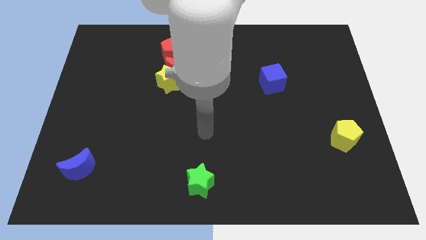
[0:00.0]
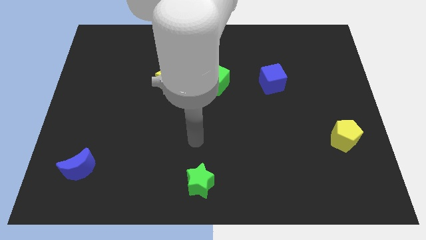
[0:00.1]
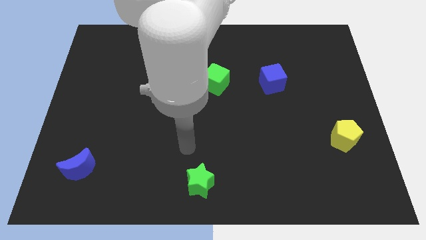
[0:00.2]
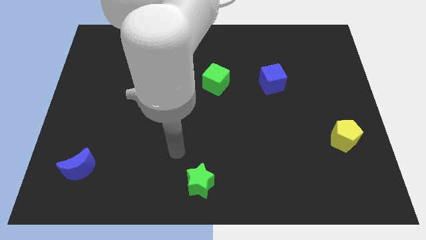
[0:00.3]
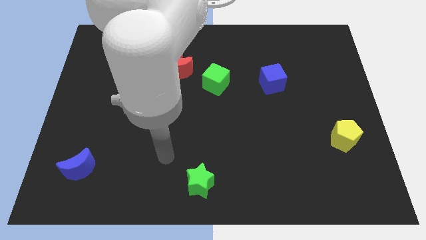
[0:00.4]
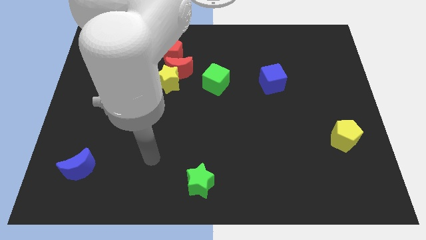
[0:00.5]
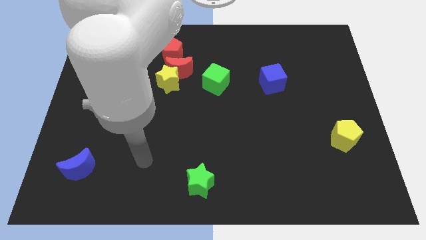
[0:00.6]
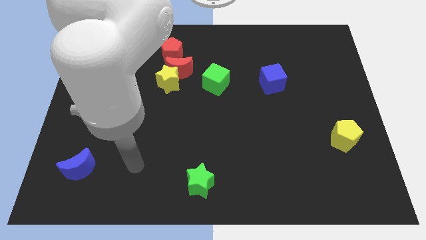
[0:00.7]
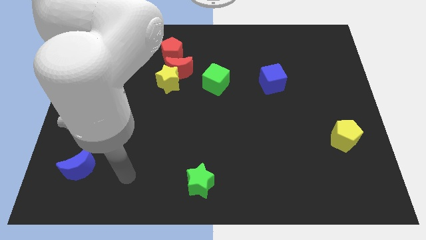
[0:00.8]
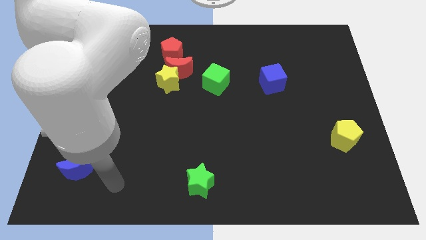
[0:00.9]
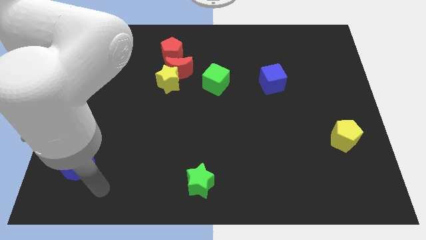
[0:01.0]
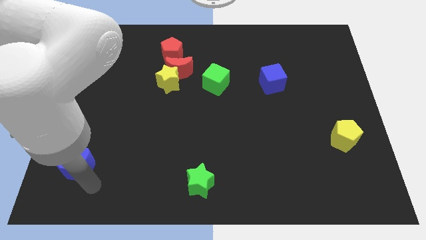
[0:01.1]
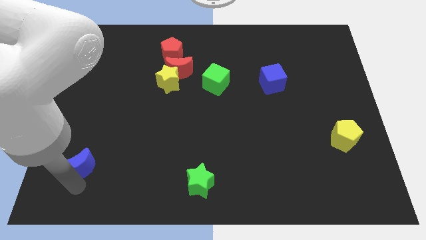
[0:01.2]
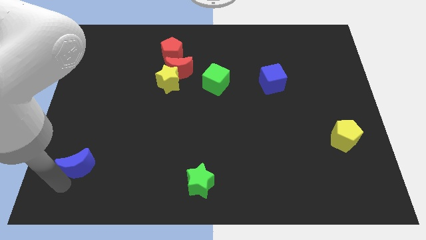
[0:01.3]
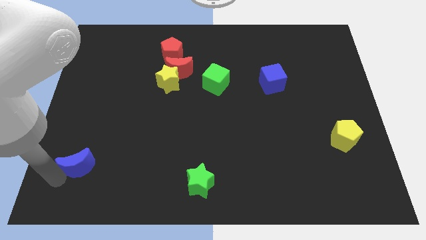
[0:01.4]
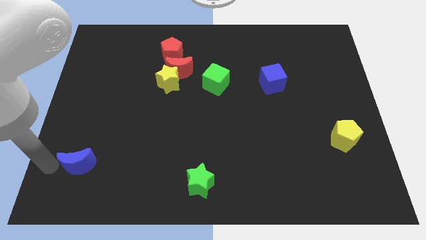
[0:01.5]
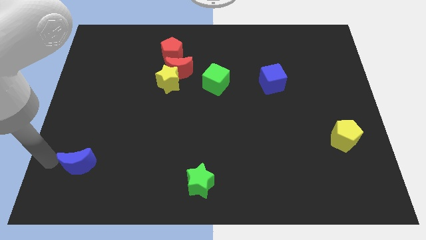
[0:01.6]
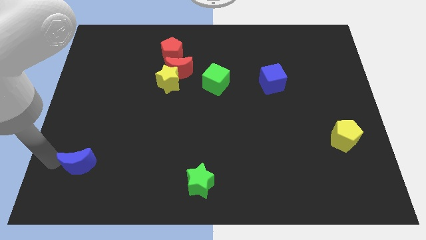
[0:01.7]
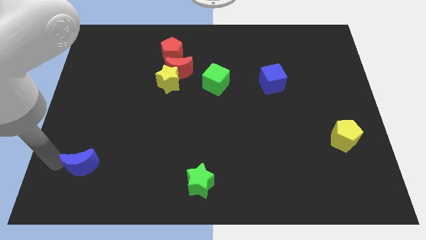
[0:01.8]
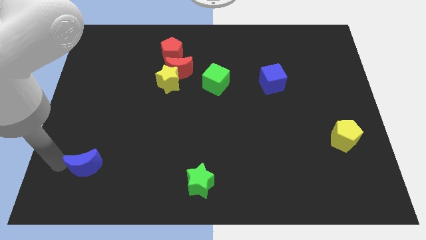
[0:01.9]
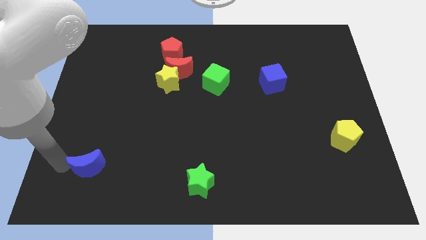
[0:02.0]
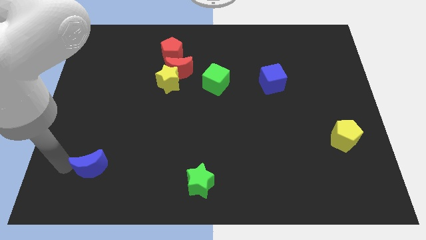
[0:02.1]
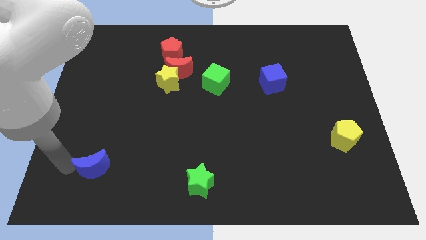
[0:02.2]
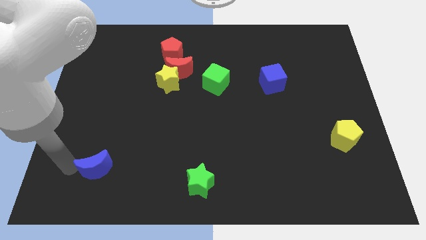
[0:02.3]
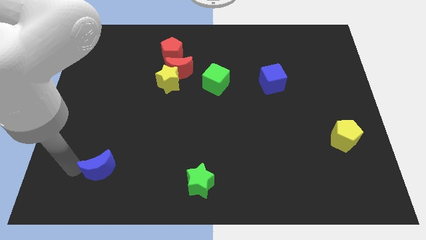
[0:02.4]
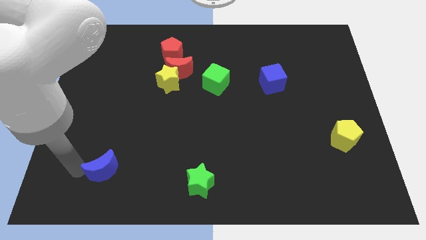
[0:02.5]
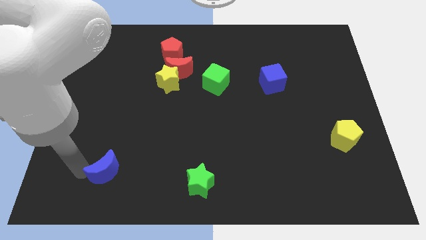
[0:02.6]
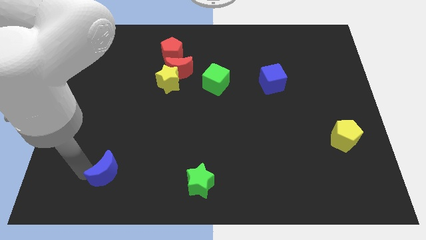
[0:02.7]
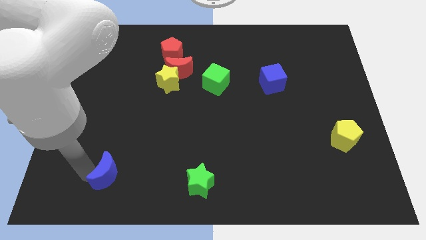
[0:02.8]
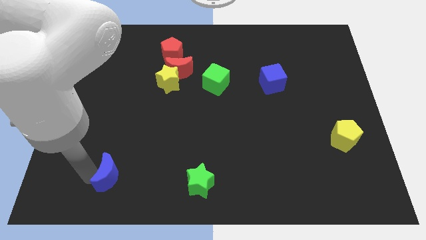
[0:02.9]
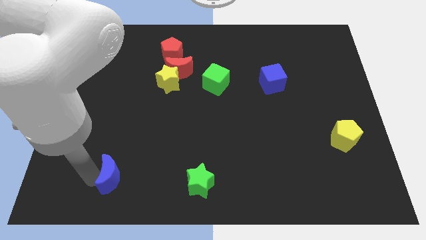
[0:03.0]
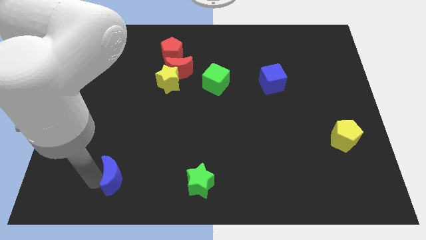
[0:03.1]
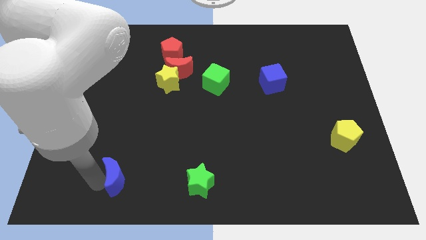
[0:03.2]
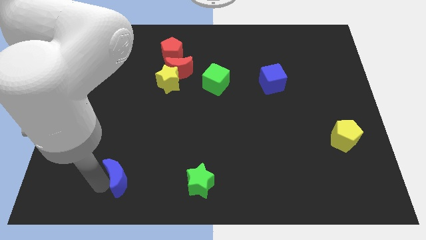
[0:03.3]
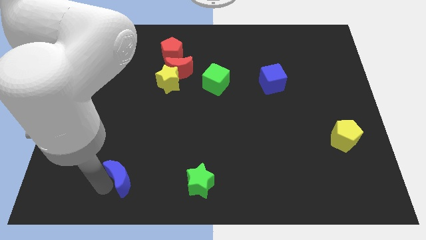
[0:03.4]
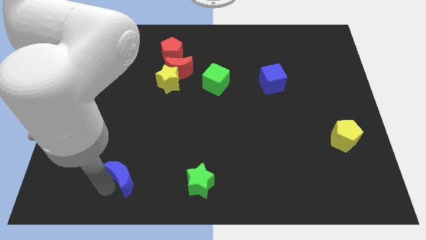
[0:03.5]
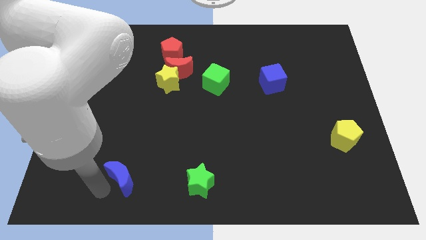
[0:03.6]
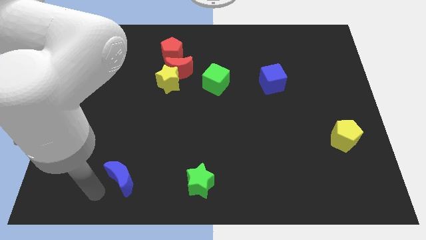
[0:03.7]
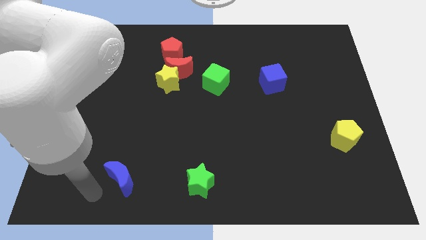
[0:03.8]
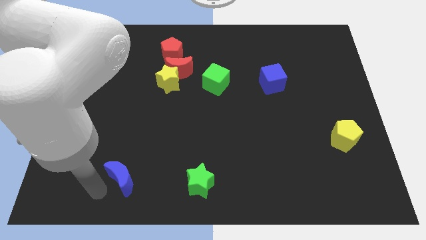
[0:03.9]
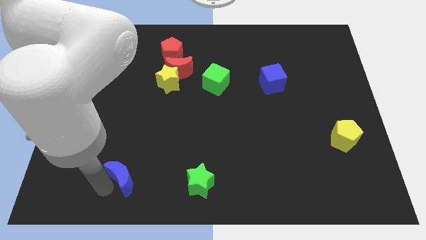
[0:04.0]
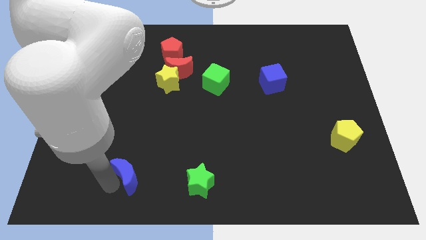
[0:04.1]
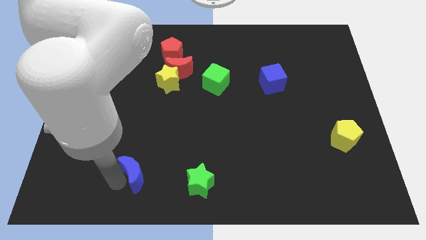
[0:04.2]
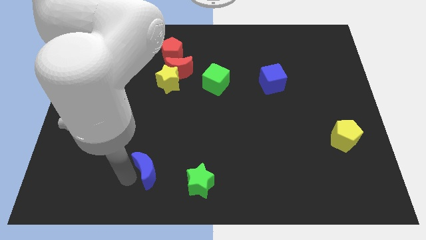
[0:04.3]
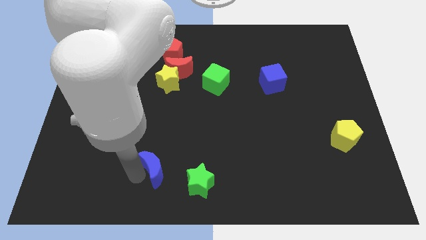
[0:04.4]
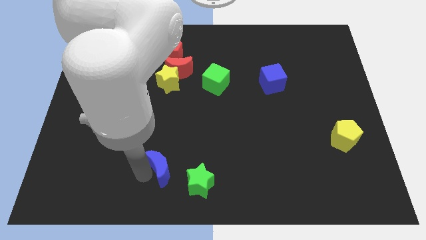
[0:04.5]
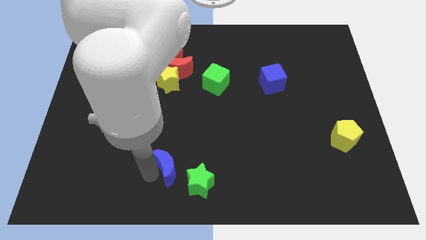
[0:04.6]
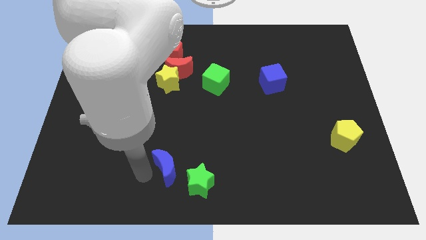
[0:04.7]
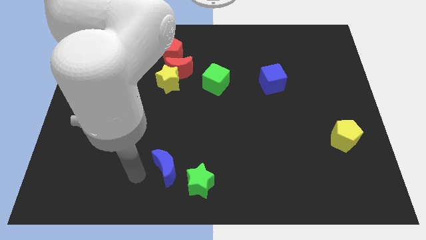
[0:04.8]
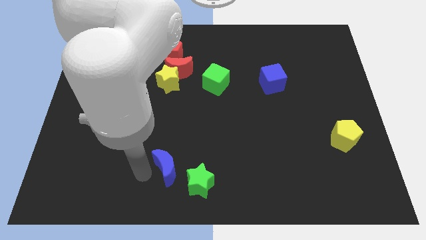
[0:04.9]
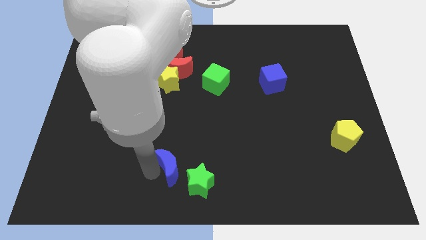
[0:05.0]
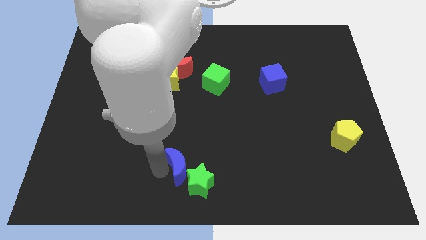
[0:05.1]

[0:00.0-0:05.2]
move the blue moon to the right

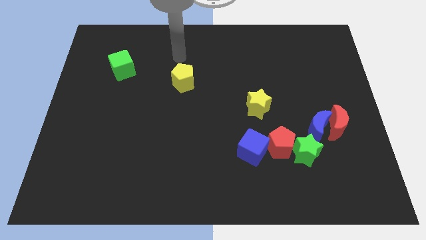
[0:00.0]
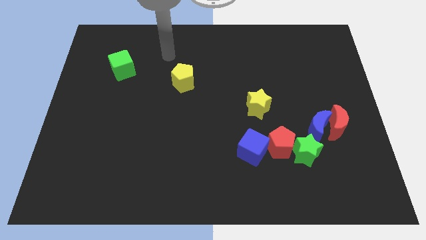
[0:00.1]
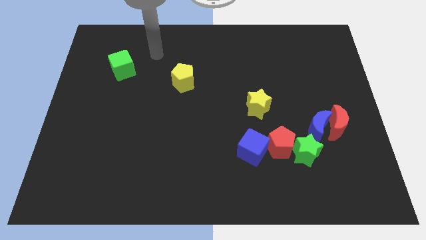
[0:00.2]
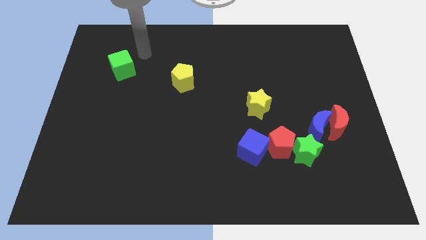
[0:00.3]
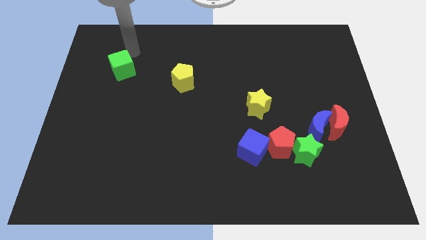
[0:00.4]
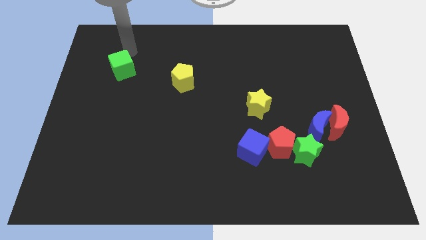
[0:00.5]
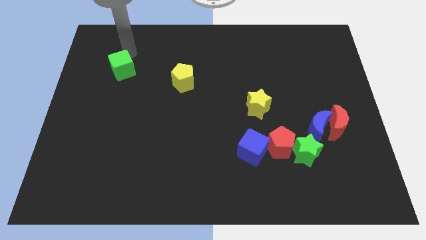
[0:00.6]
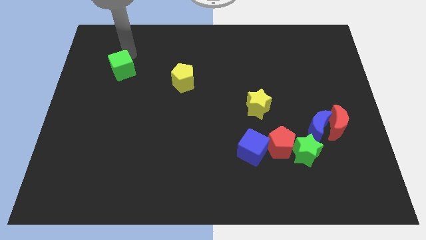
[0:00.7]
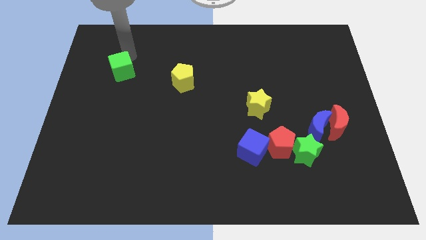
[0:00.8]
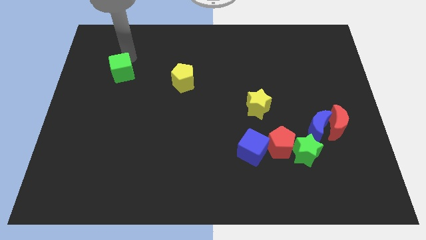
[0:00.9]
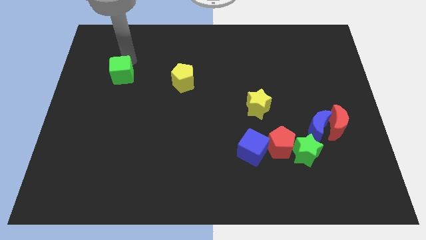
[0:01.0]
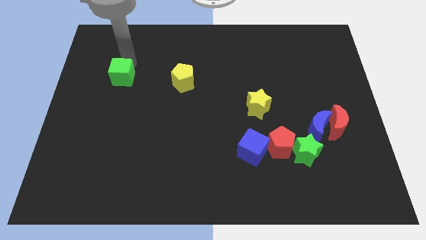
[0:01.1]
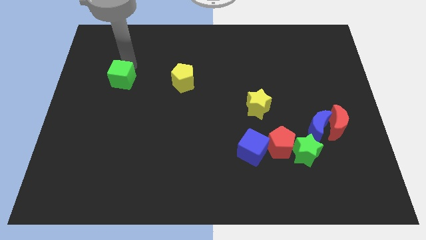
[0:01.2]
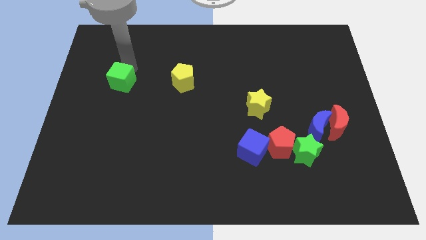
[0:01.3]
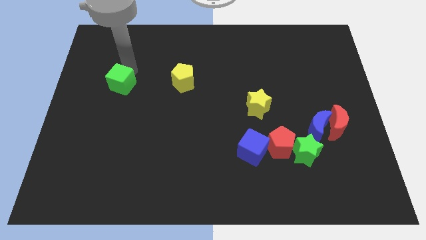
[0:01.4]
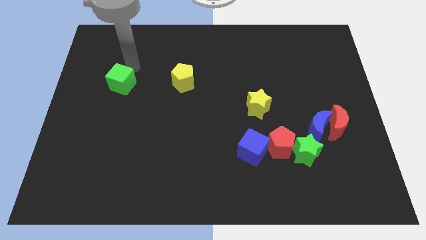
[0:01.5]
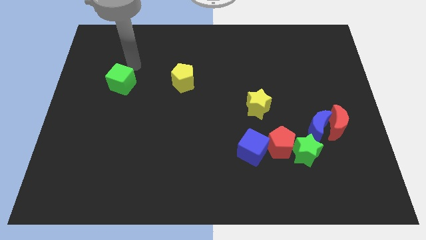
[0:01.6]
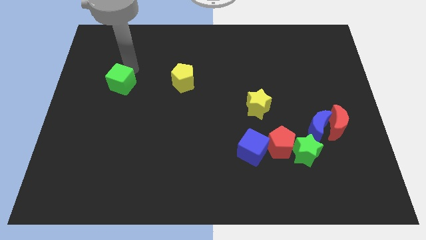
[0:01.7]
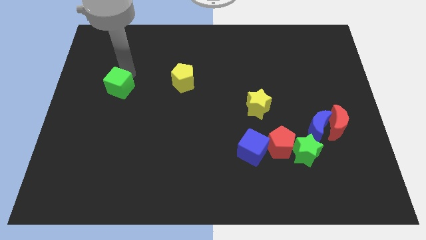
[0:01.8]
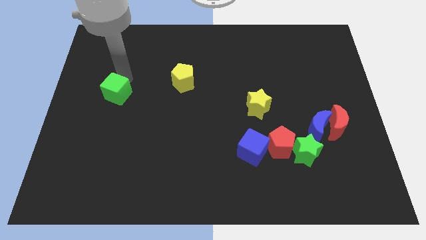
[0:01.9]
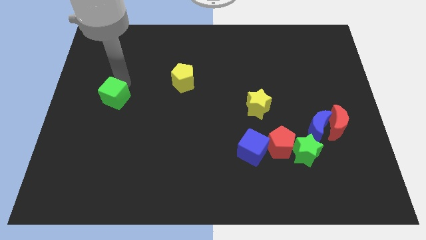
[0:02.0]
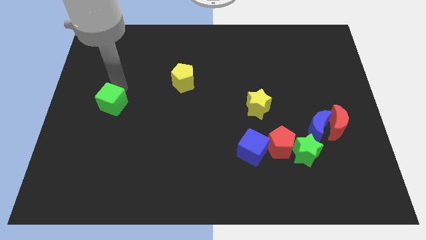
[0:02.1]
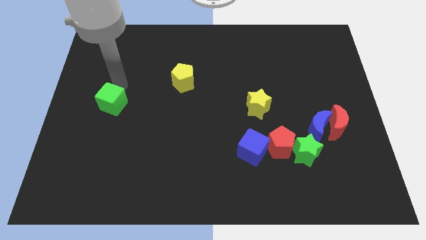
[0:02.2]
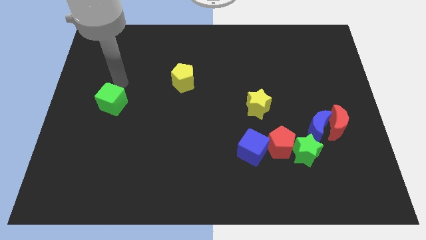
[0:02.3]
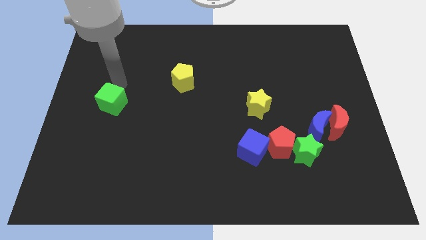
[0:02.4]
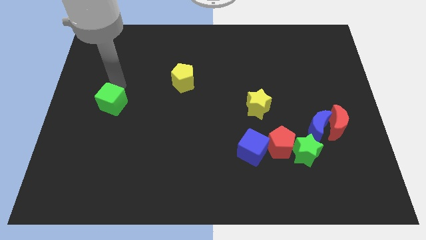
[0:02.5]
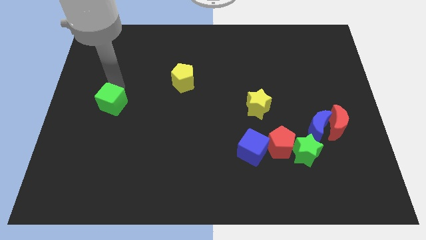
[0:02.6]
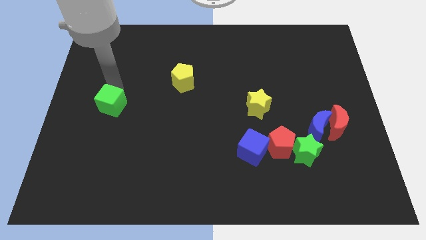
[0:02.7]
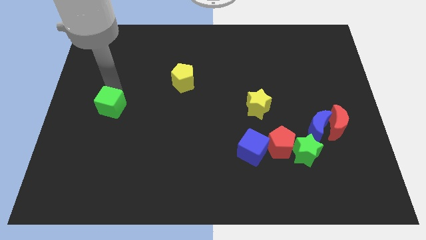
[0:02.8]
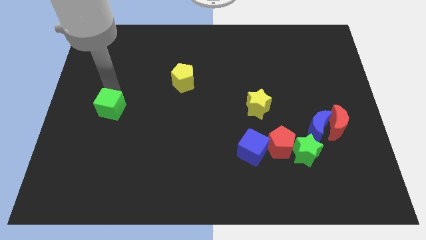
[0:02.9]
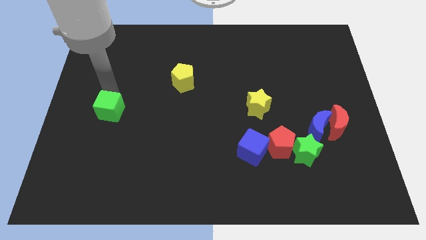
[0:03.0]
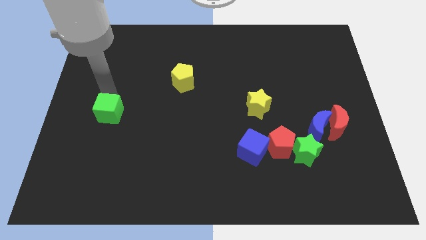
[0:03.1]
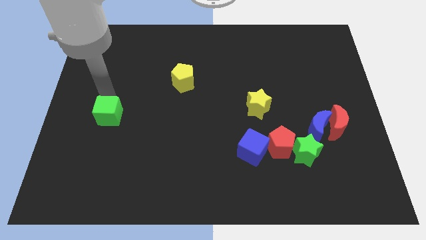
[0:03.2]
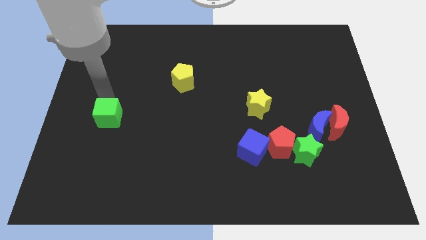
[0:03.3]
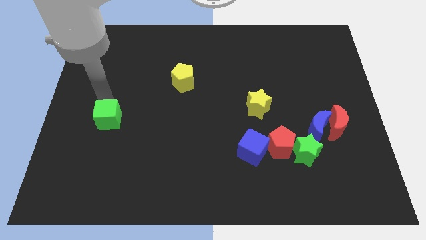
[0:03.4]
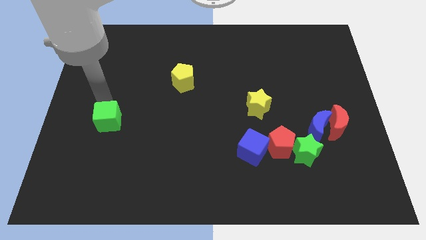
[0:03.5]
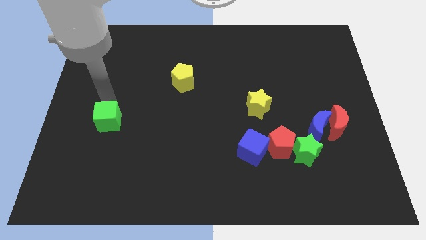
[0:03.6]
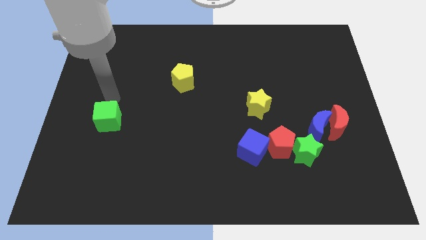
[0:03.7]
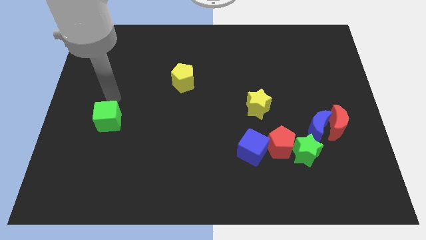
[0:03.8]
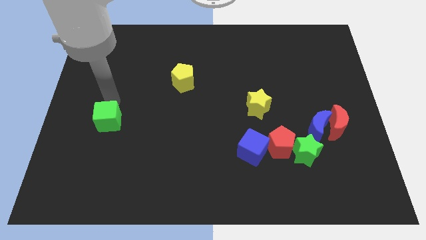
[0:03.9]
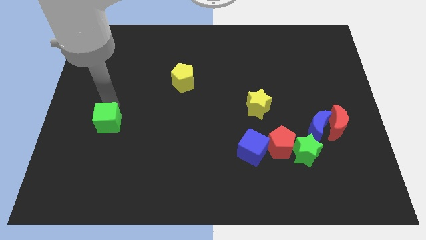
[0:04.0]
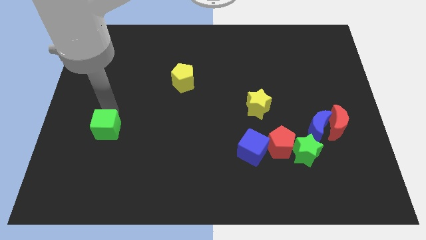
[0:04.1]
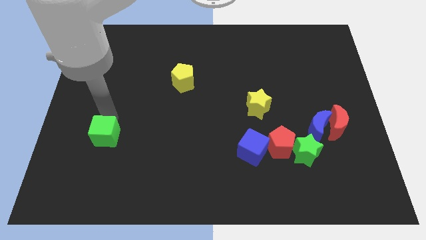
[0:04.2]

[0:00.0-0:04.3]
slide the green cube down
